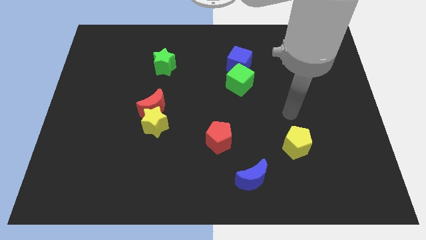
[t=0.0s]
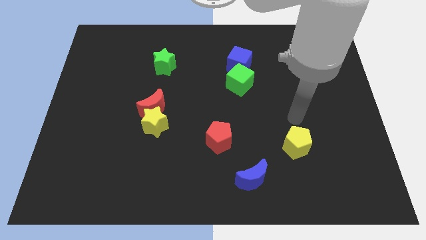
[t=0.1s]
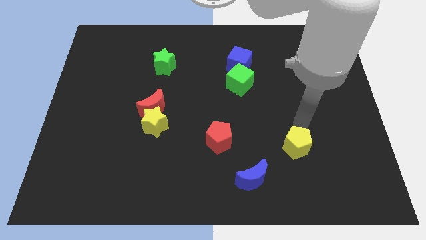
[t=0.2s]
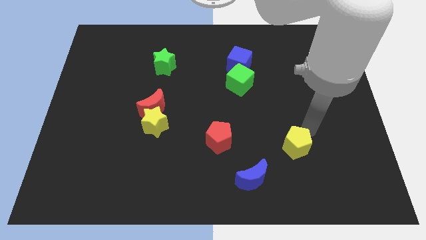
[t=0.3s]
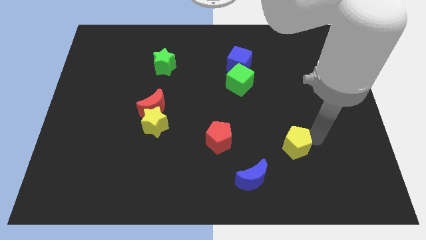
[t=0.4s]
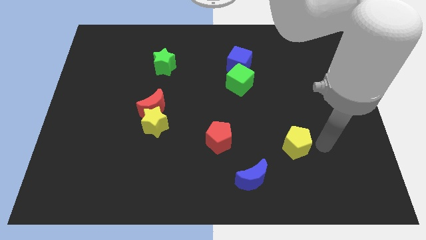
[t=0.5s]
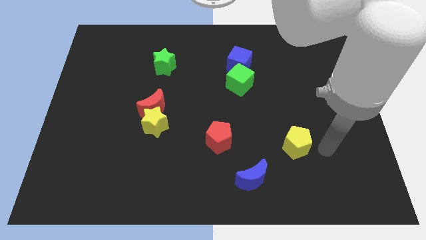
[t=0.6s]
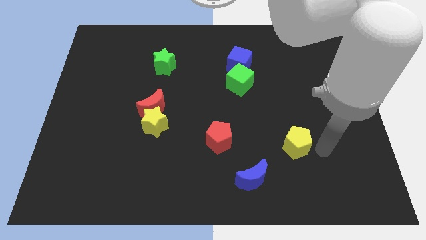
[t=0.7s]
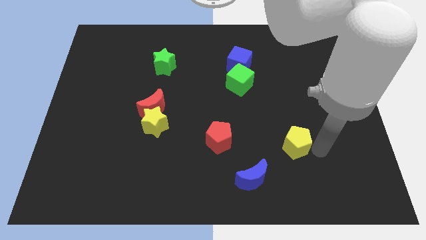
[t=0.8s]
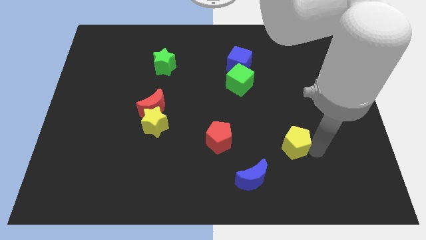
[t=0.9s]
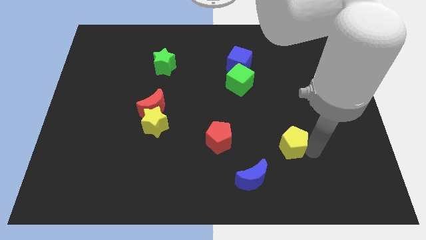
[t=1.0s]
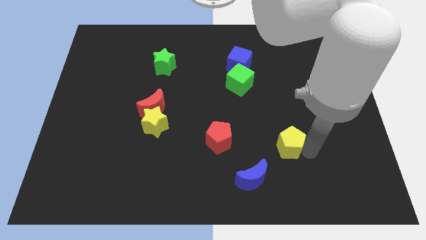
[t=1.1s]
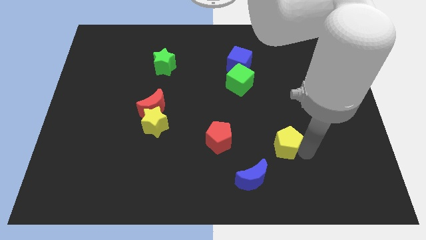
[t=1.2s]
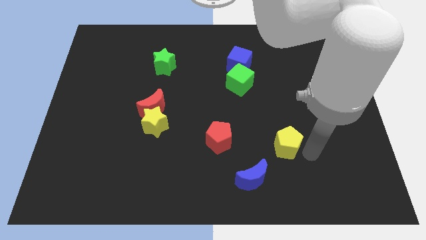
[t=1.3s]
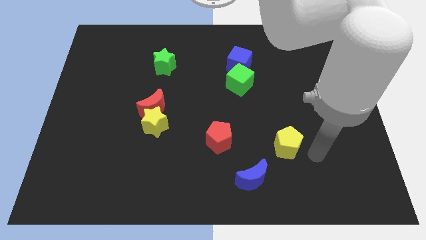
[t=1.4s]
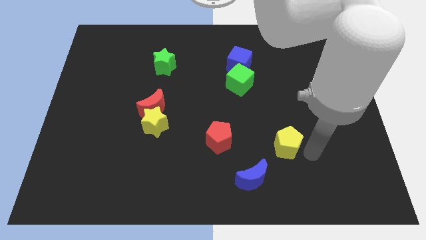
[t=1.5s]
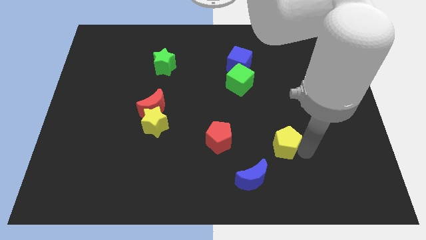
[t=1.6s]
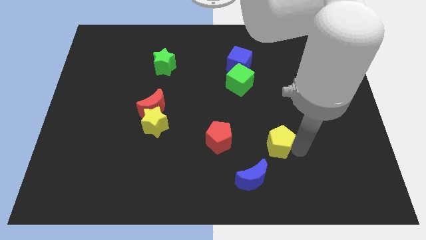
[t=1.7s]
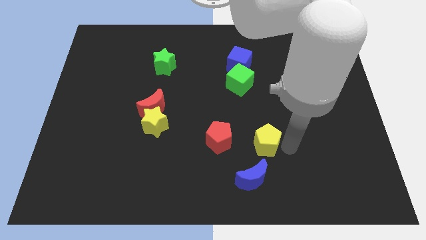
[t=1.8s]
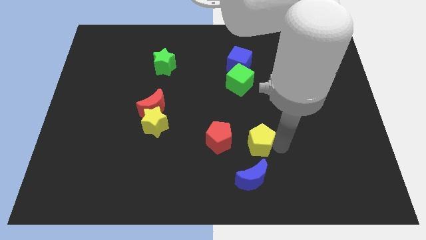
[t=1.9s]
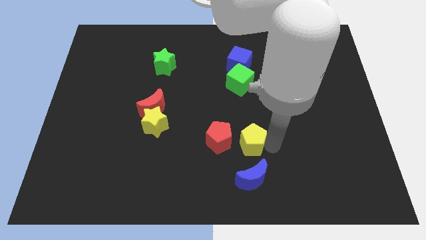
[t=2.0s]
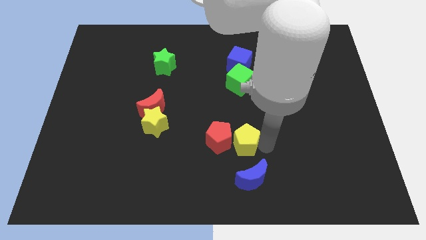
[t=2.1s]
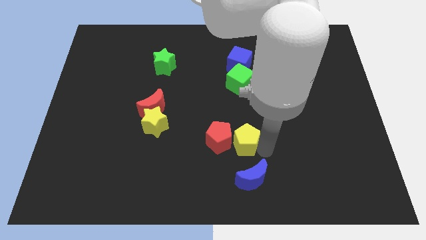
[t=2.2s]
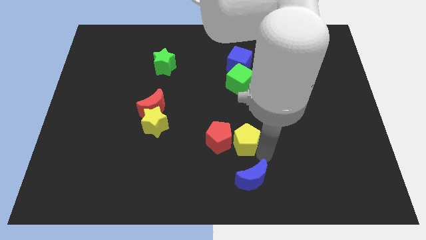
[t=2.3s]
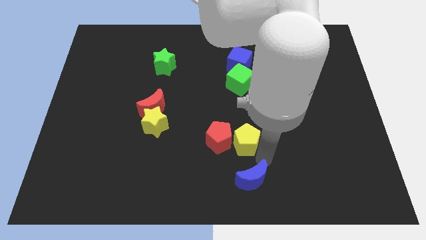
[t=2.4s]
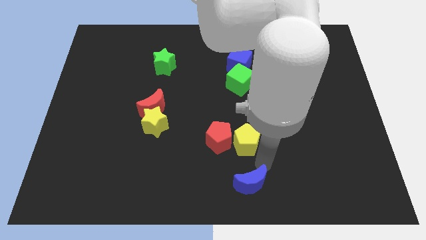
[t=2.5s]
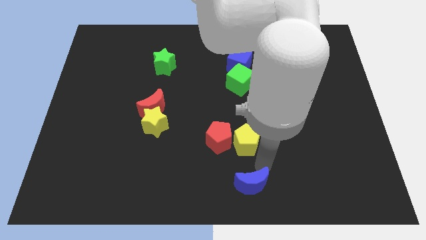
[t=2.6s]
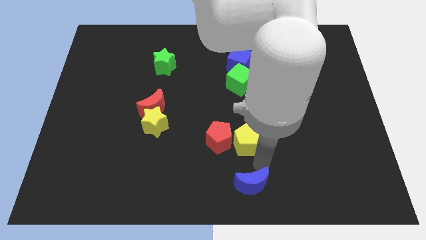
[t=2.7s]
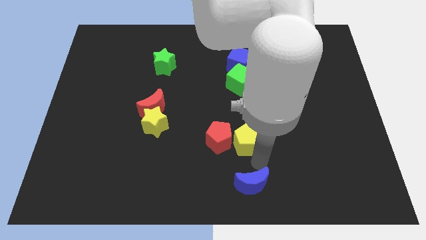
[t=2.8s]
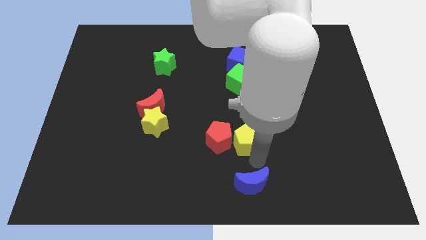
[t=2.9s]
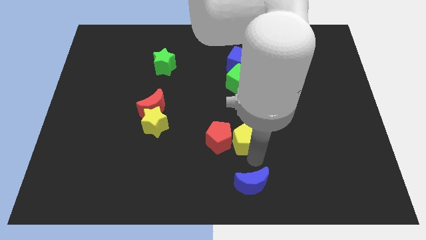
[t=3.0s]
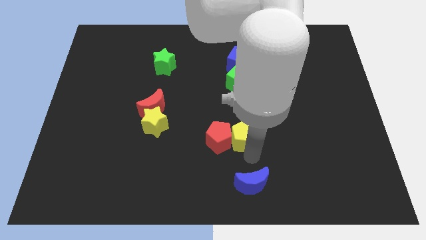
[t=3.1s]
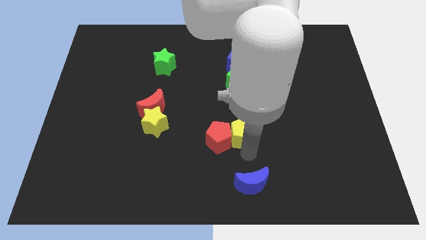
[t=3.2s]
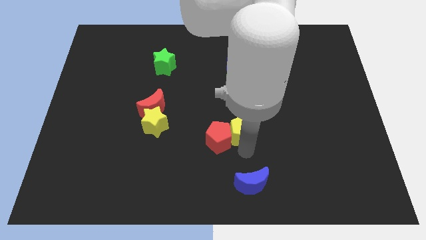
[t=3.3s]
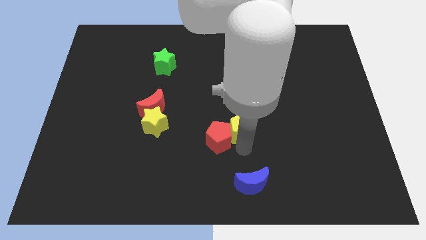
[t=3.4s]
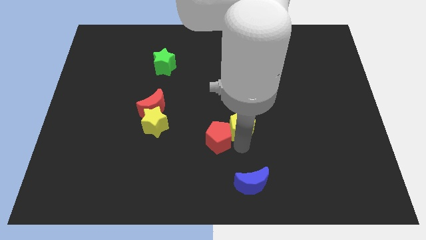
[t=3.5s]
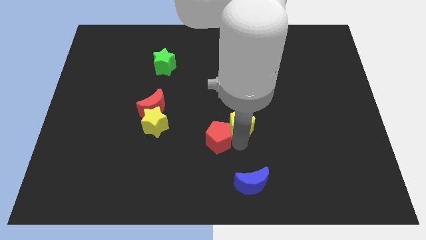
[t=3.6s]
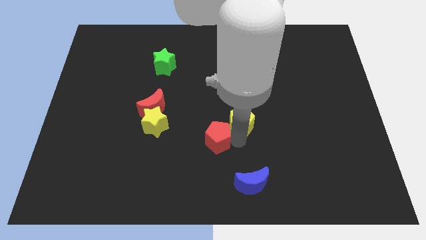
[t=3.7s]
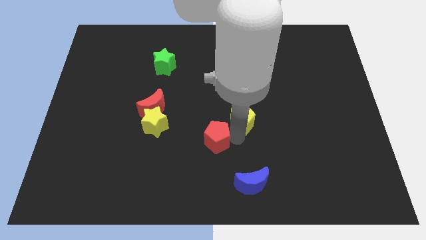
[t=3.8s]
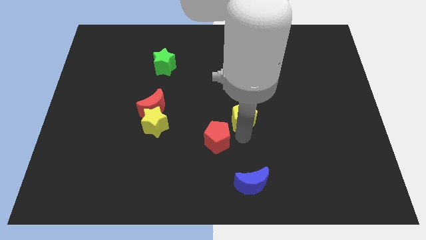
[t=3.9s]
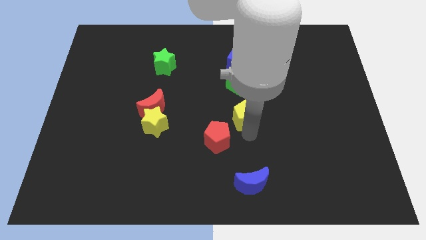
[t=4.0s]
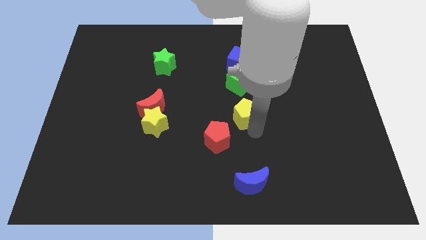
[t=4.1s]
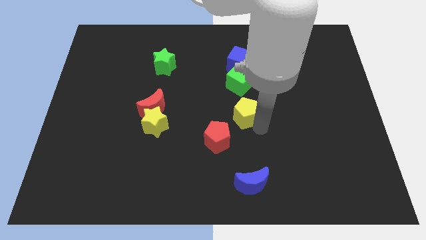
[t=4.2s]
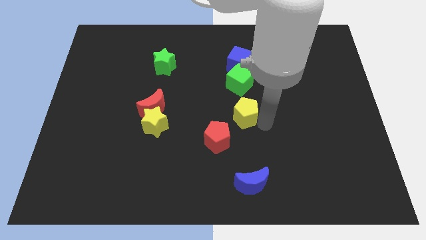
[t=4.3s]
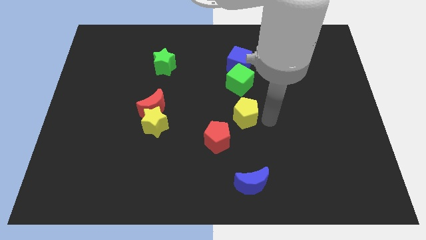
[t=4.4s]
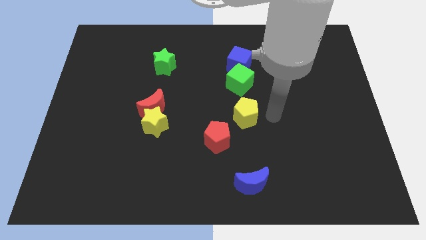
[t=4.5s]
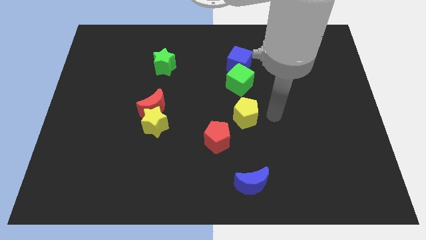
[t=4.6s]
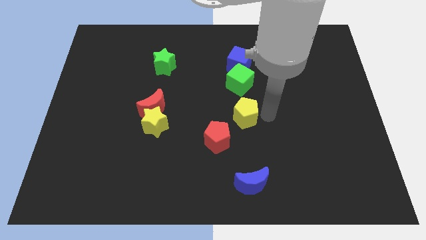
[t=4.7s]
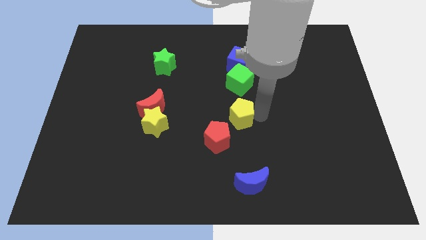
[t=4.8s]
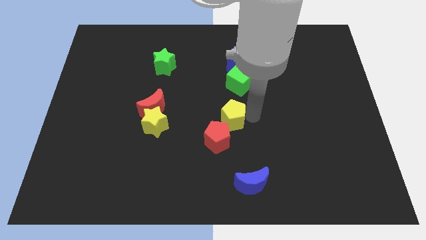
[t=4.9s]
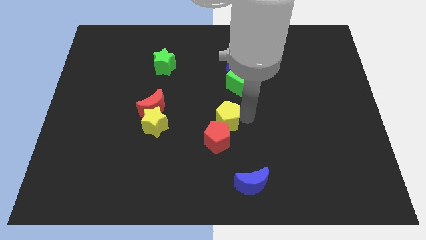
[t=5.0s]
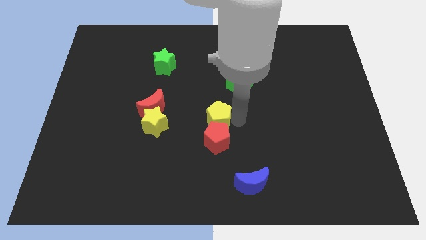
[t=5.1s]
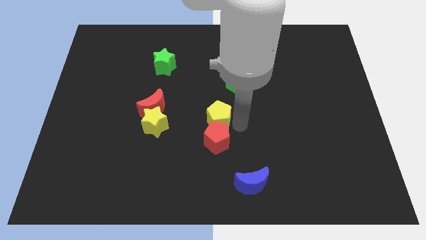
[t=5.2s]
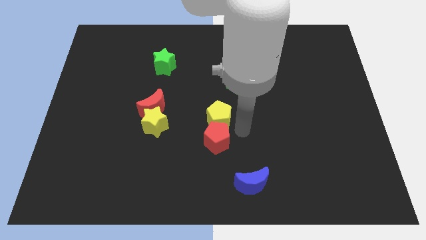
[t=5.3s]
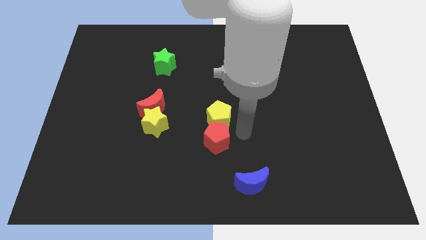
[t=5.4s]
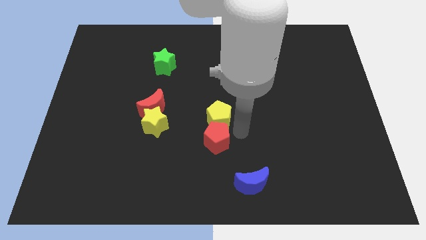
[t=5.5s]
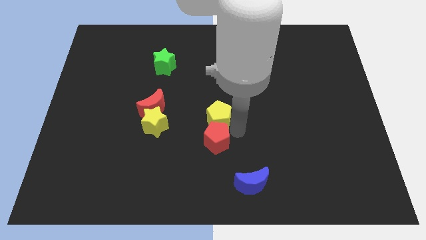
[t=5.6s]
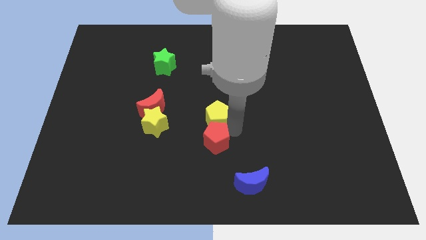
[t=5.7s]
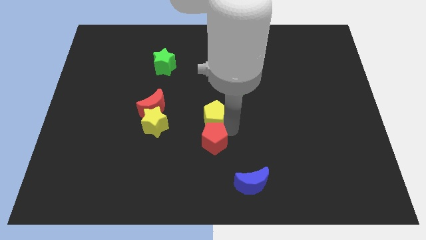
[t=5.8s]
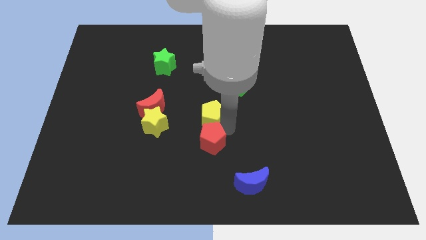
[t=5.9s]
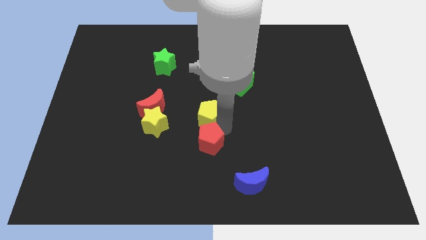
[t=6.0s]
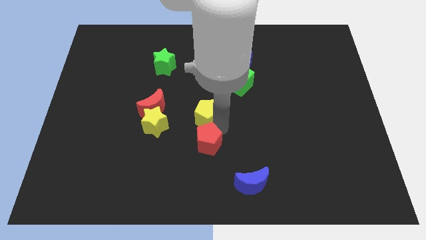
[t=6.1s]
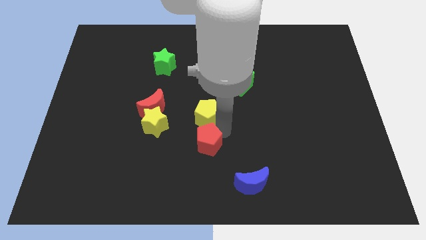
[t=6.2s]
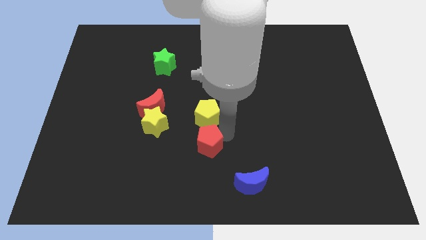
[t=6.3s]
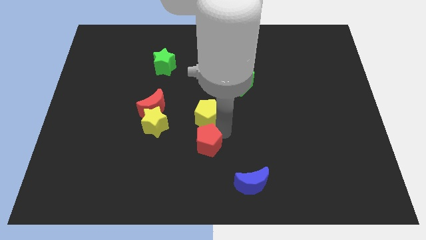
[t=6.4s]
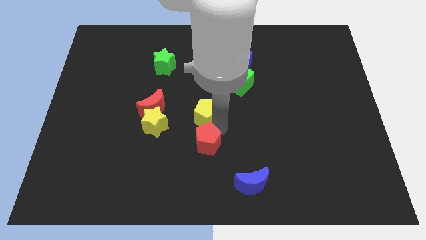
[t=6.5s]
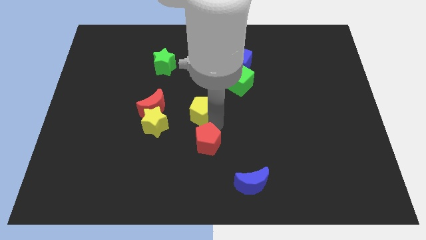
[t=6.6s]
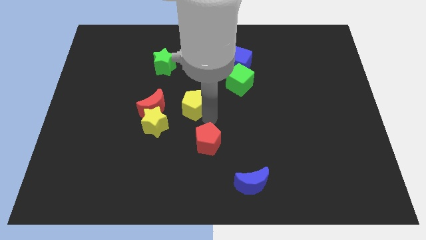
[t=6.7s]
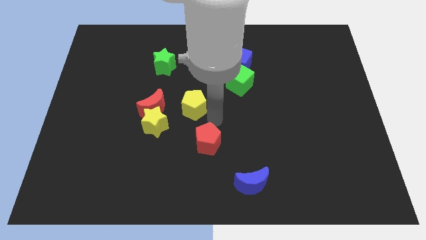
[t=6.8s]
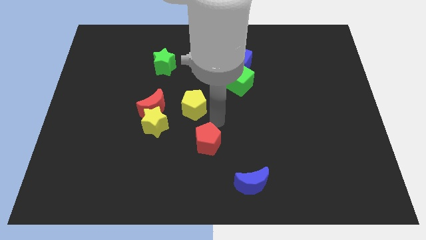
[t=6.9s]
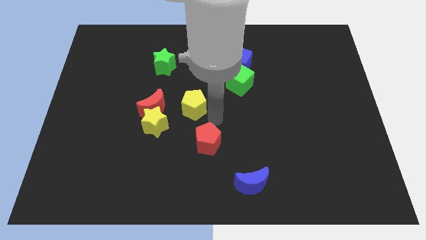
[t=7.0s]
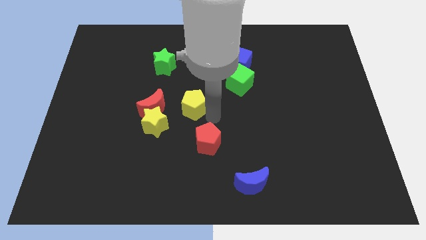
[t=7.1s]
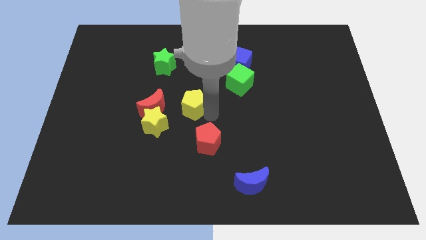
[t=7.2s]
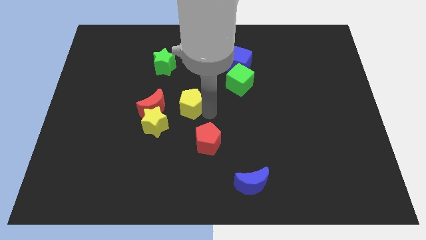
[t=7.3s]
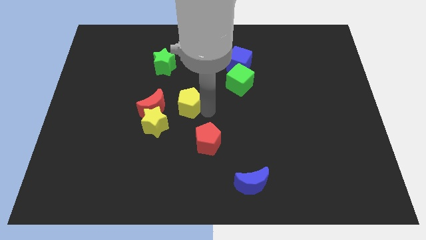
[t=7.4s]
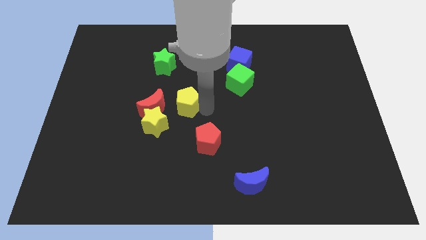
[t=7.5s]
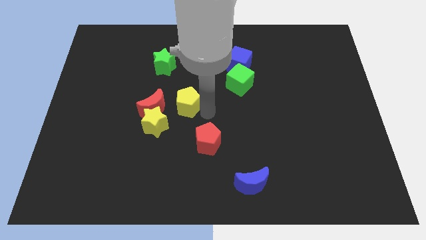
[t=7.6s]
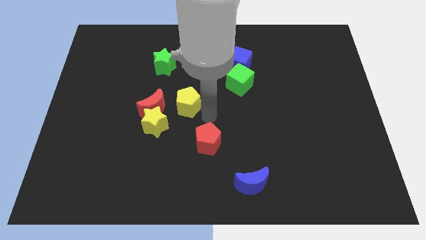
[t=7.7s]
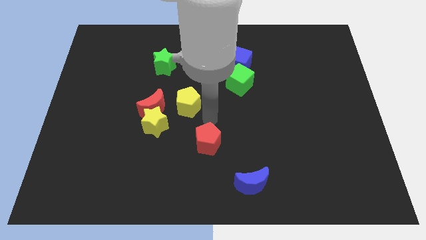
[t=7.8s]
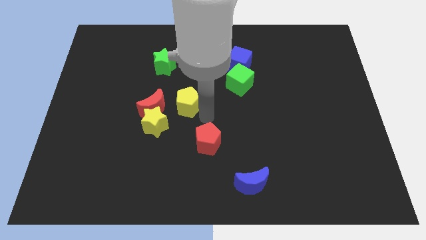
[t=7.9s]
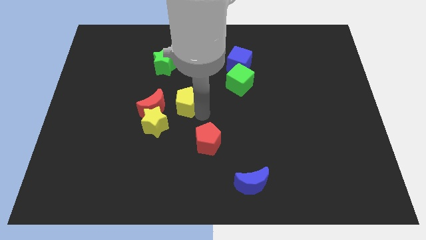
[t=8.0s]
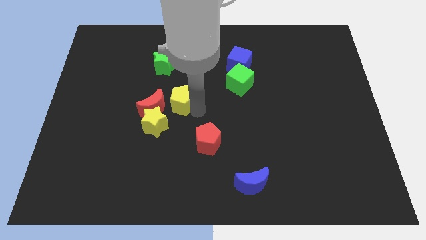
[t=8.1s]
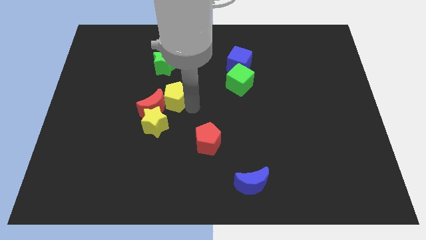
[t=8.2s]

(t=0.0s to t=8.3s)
push the yellow pentagon next to the red moon
